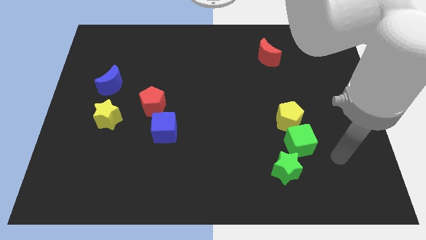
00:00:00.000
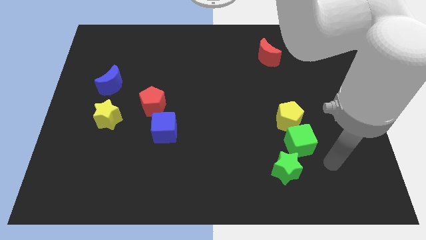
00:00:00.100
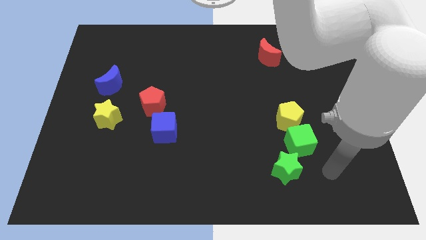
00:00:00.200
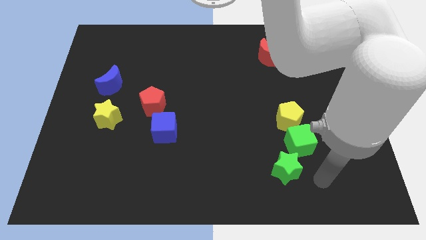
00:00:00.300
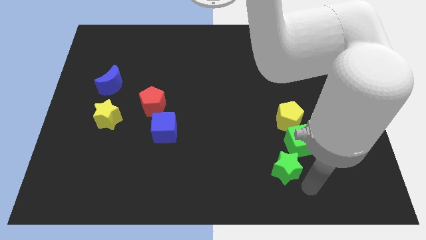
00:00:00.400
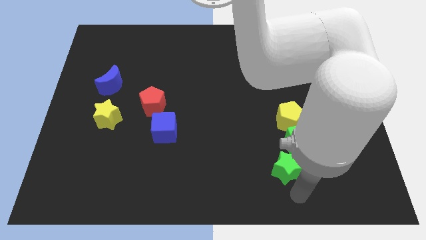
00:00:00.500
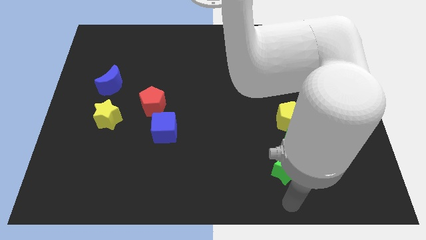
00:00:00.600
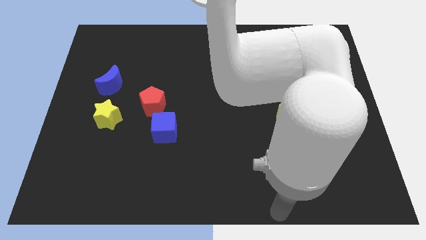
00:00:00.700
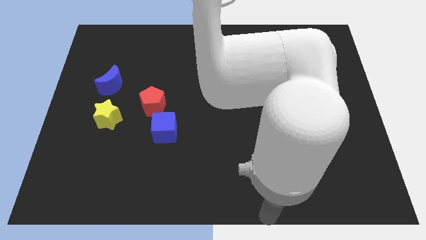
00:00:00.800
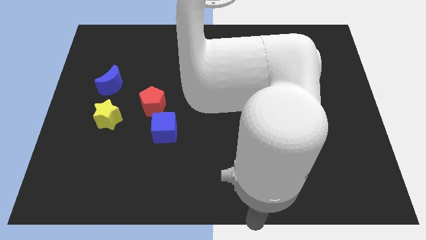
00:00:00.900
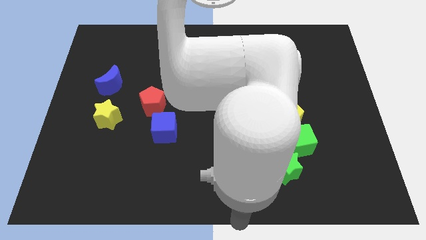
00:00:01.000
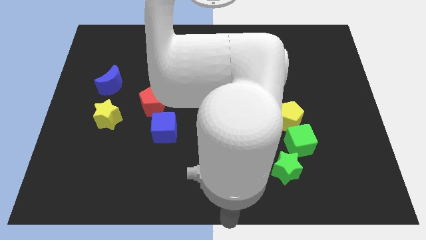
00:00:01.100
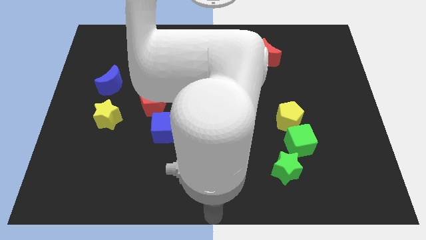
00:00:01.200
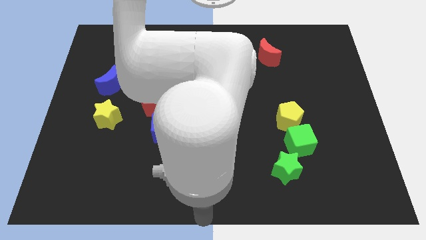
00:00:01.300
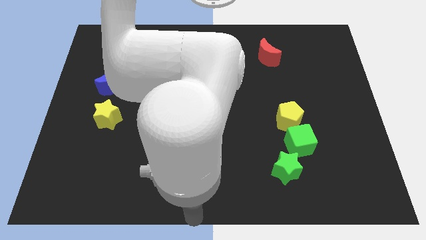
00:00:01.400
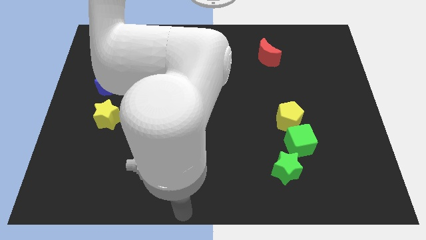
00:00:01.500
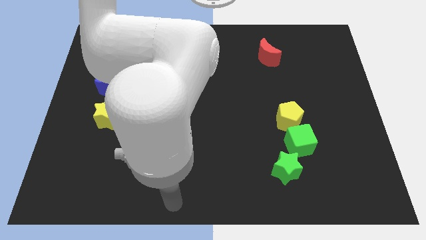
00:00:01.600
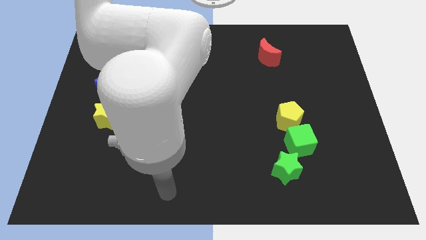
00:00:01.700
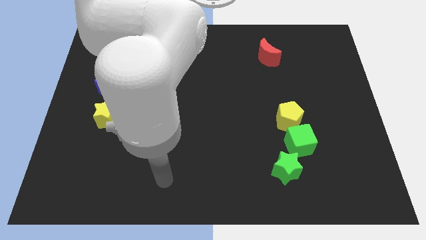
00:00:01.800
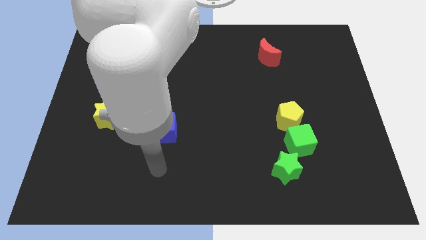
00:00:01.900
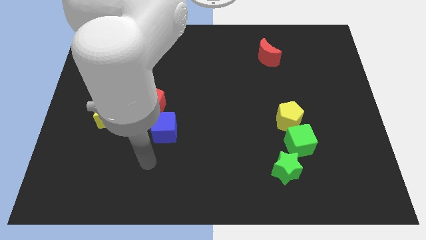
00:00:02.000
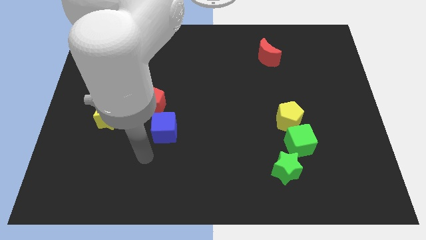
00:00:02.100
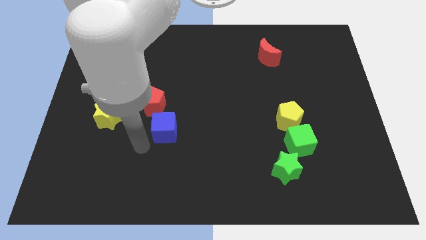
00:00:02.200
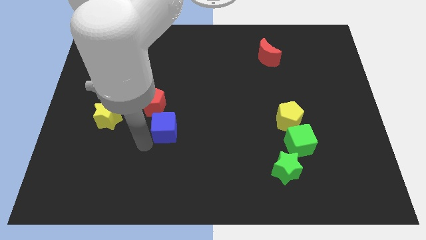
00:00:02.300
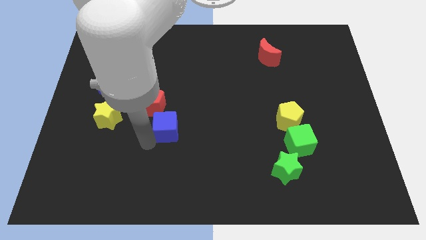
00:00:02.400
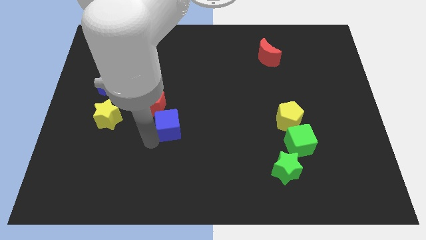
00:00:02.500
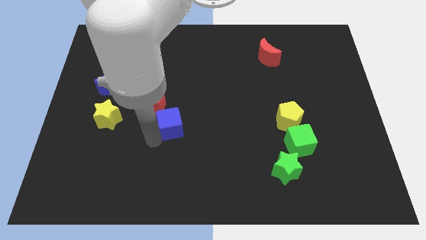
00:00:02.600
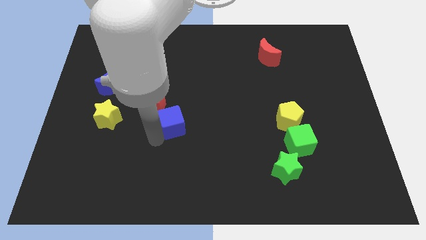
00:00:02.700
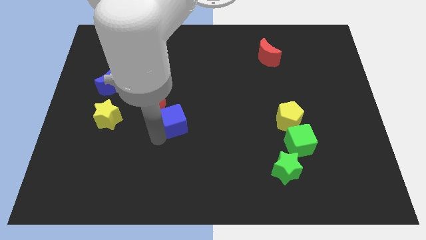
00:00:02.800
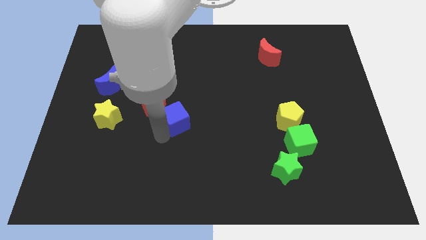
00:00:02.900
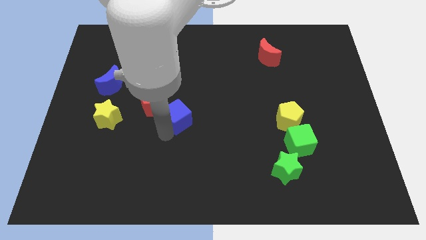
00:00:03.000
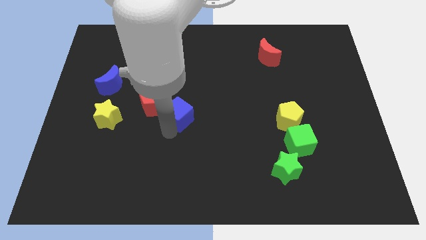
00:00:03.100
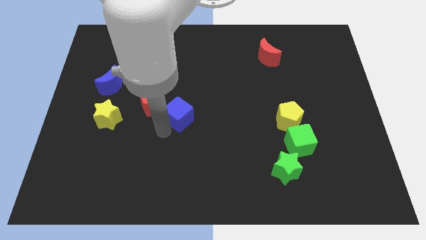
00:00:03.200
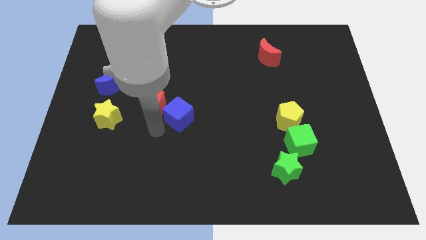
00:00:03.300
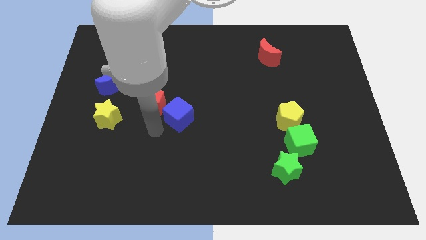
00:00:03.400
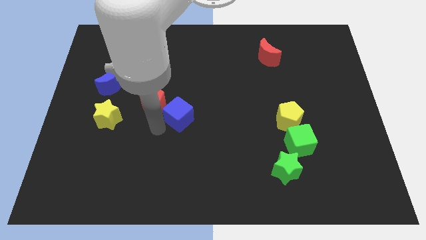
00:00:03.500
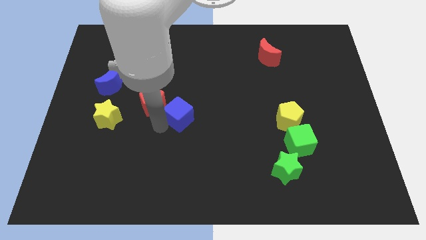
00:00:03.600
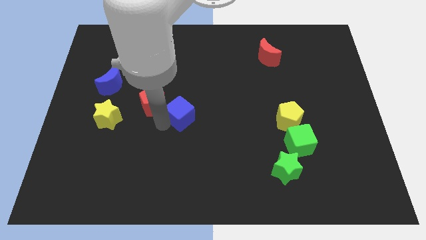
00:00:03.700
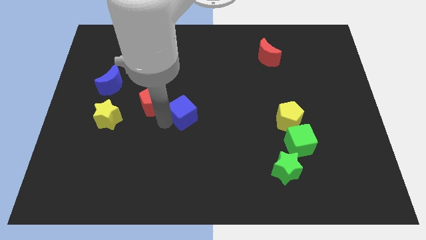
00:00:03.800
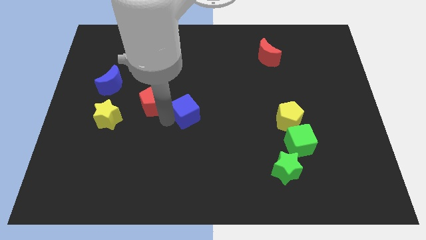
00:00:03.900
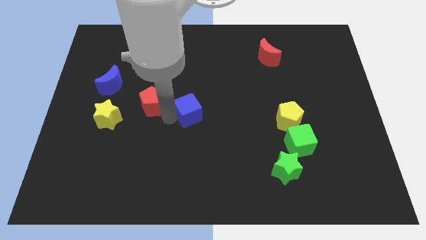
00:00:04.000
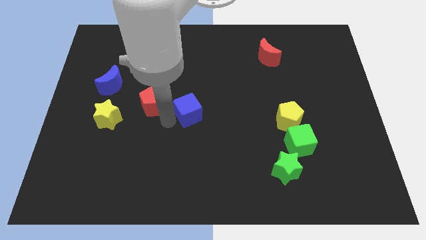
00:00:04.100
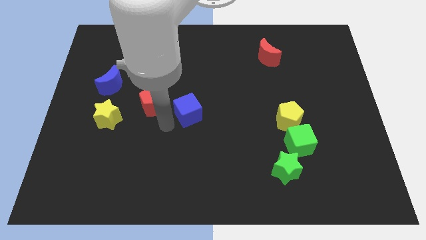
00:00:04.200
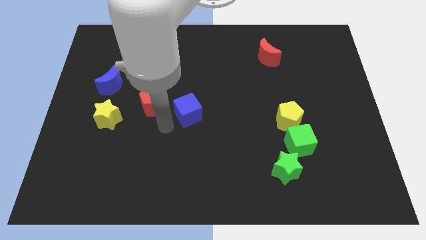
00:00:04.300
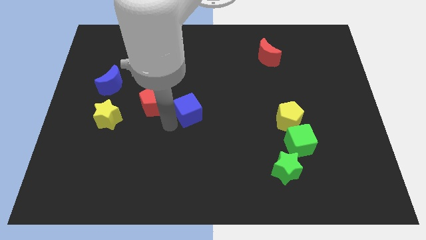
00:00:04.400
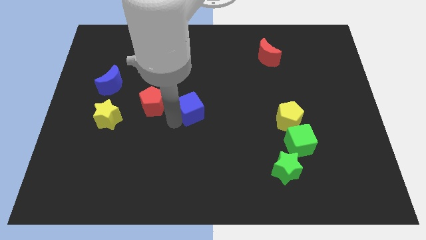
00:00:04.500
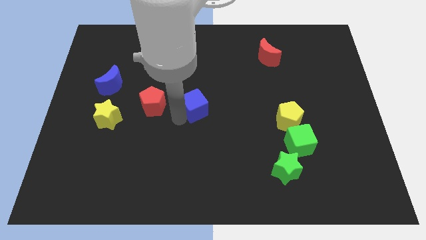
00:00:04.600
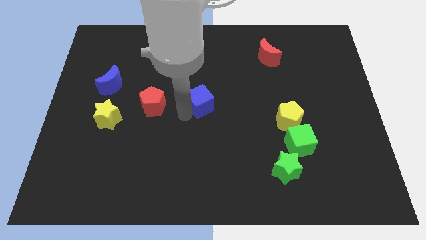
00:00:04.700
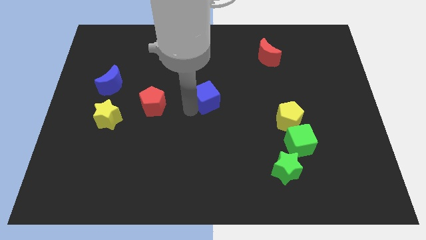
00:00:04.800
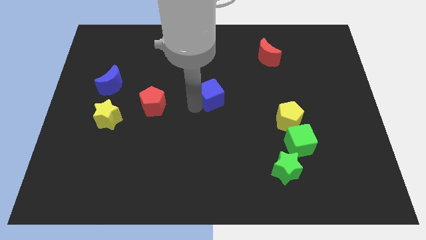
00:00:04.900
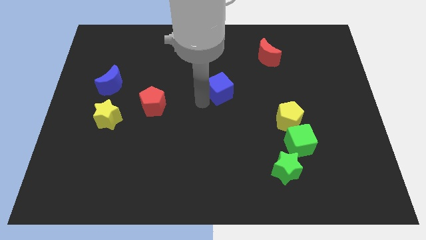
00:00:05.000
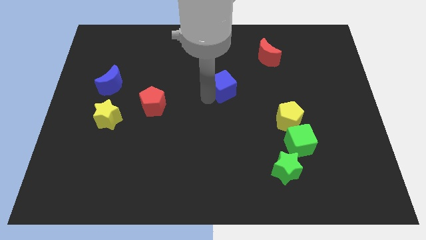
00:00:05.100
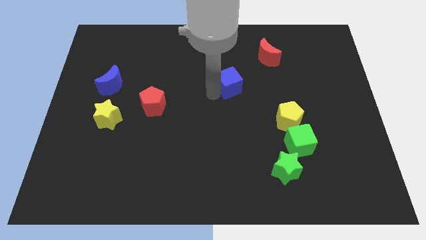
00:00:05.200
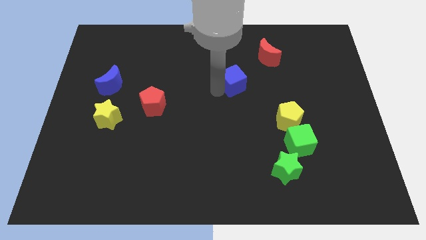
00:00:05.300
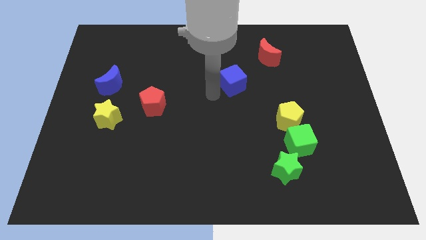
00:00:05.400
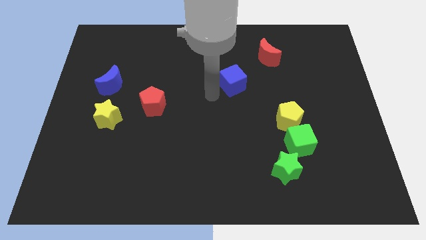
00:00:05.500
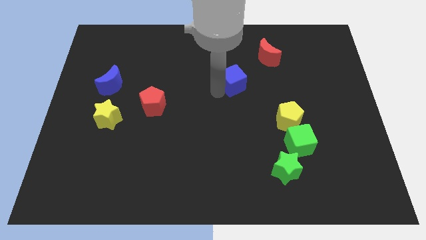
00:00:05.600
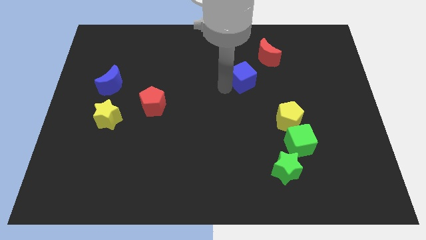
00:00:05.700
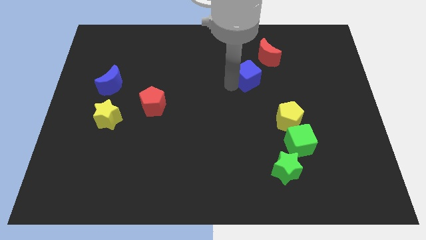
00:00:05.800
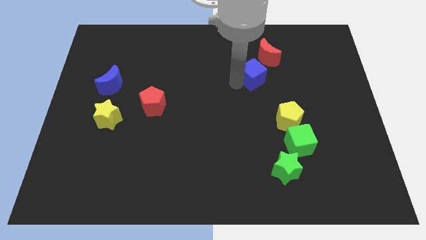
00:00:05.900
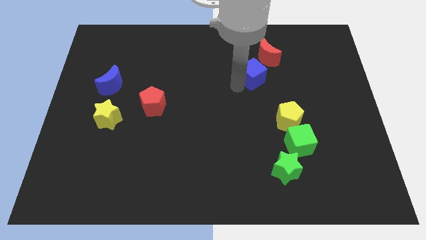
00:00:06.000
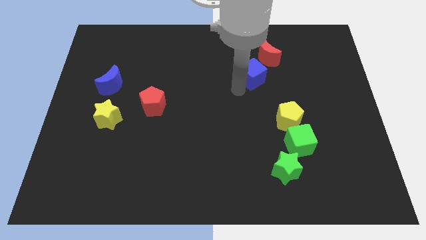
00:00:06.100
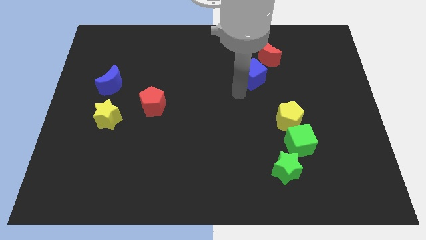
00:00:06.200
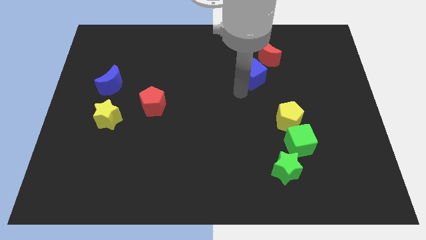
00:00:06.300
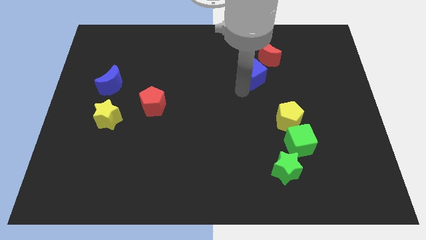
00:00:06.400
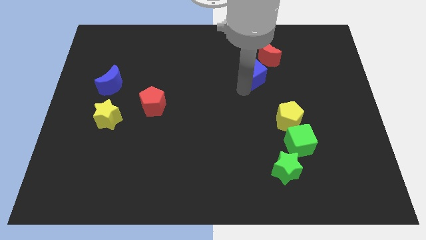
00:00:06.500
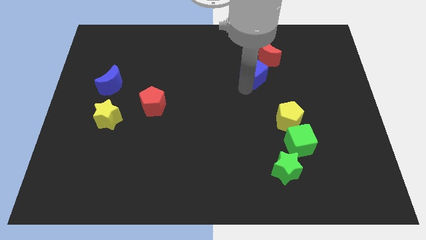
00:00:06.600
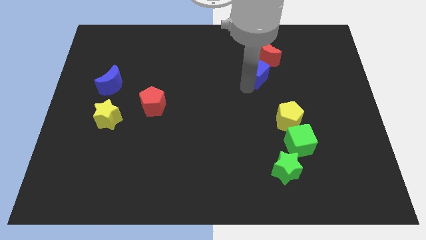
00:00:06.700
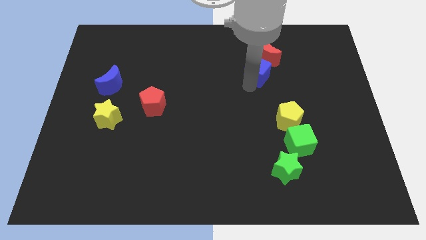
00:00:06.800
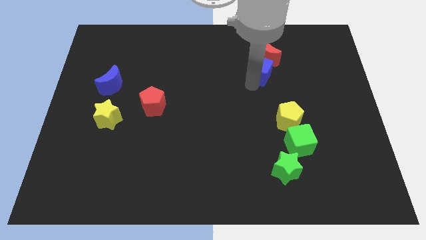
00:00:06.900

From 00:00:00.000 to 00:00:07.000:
push the blue cube close to the red moon
